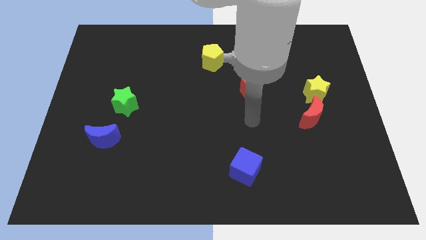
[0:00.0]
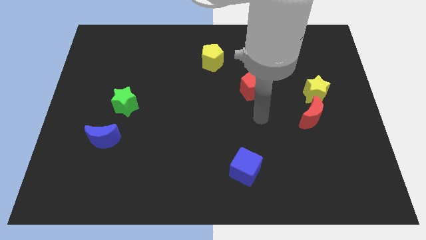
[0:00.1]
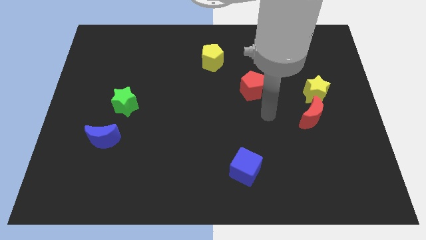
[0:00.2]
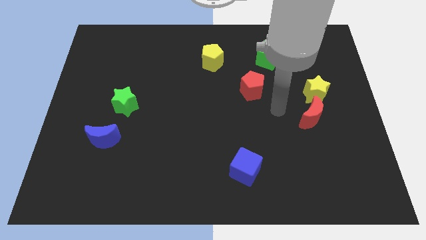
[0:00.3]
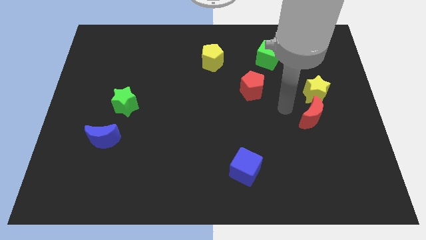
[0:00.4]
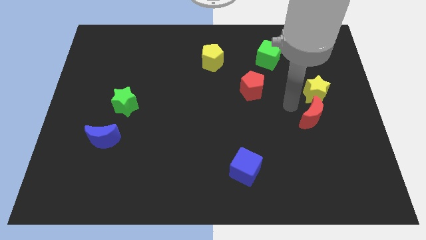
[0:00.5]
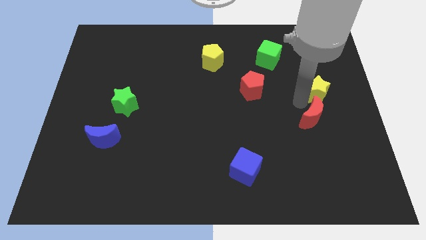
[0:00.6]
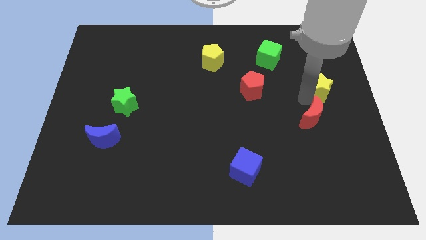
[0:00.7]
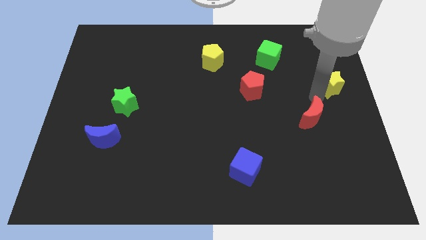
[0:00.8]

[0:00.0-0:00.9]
separate the red moon from the yellow star

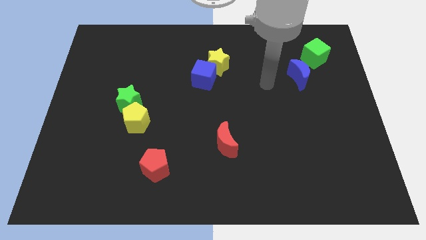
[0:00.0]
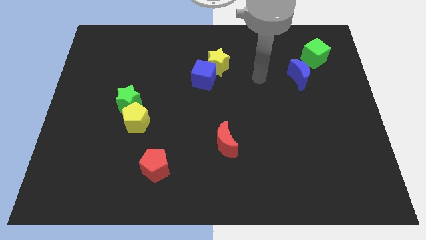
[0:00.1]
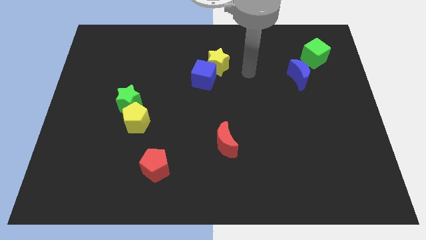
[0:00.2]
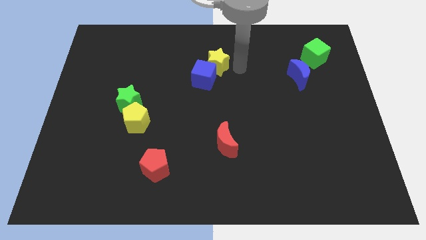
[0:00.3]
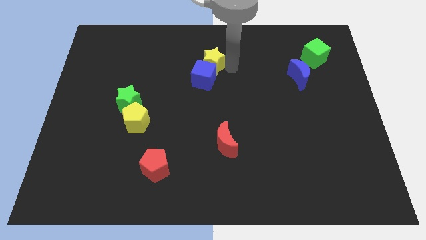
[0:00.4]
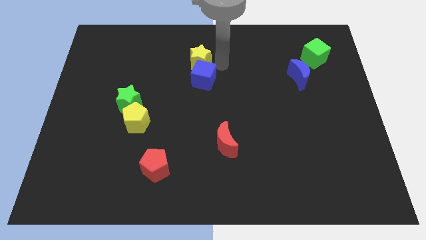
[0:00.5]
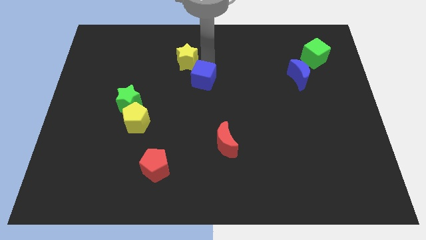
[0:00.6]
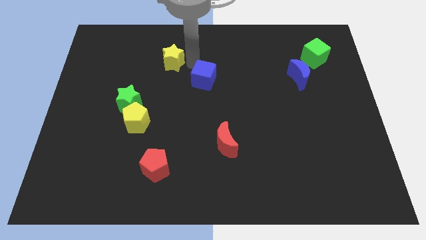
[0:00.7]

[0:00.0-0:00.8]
separate the blue cube from the yellow star

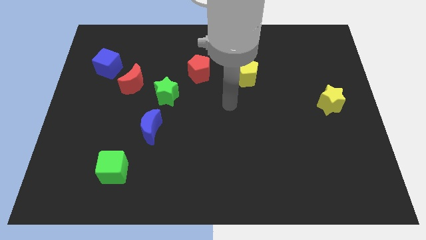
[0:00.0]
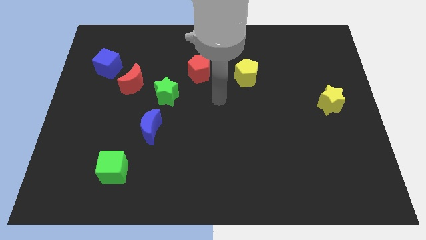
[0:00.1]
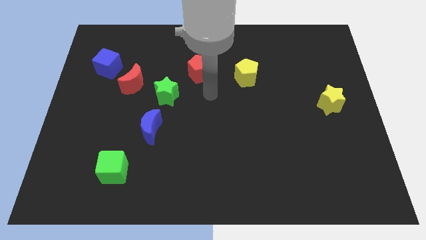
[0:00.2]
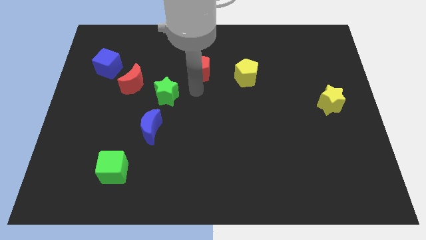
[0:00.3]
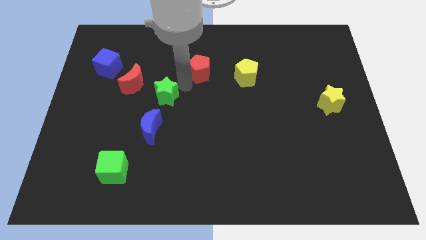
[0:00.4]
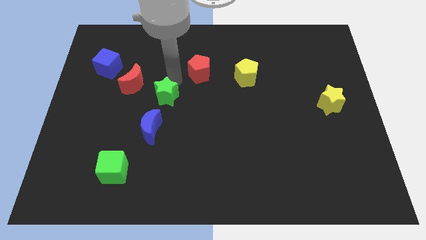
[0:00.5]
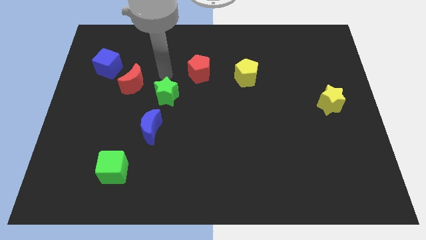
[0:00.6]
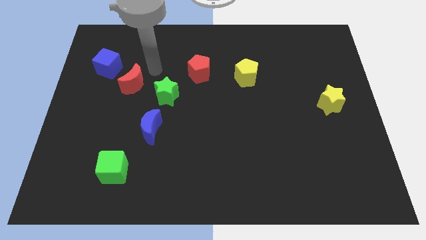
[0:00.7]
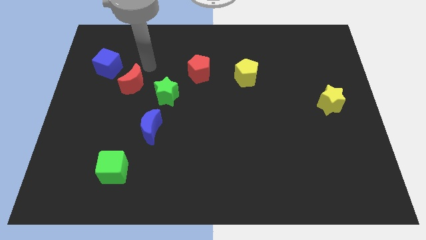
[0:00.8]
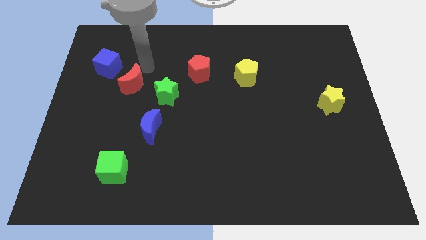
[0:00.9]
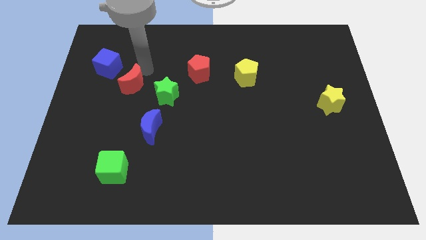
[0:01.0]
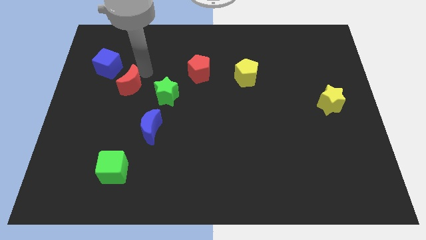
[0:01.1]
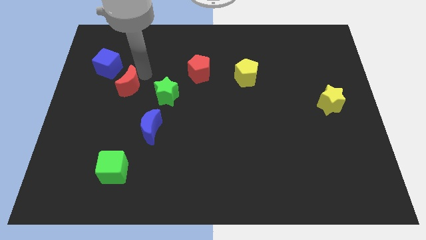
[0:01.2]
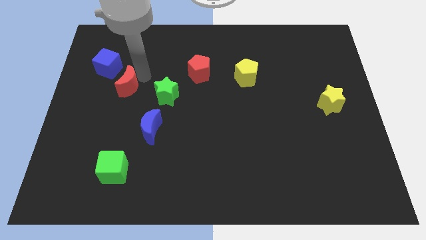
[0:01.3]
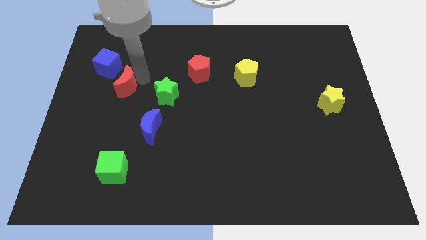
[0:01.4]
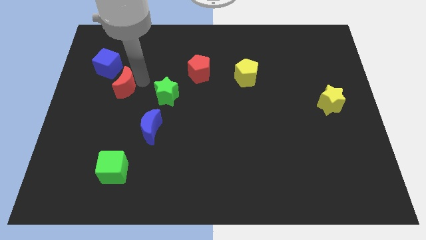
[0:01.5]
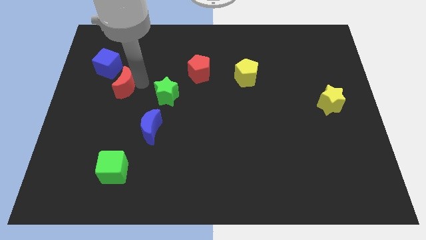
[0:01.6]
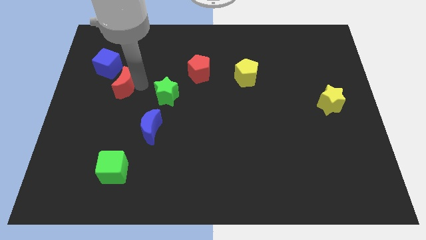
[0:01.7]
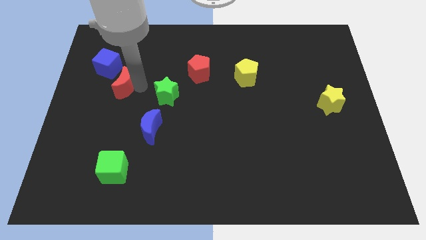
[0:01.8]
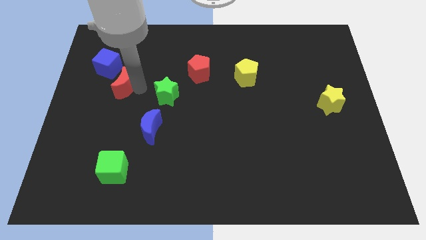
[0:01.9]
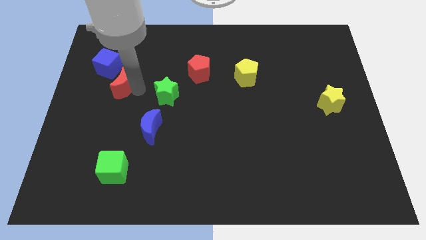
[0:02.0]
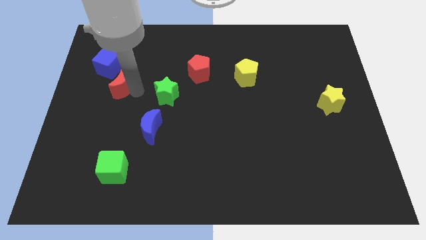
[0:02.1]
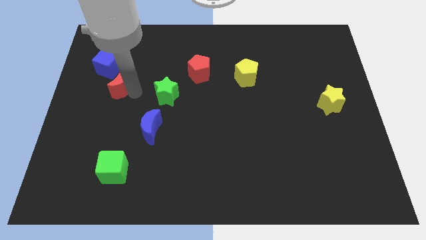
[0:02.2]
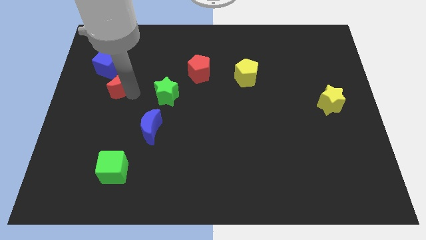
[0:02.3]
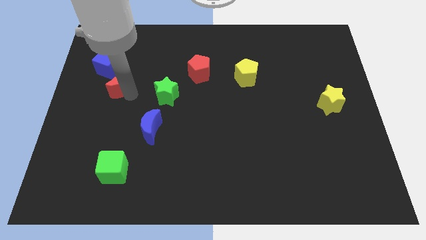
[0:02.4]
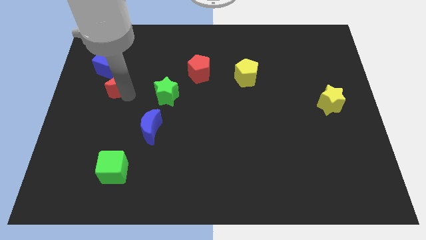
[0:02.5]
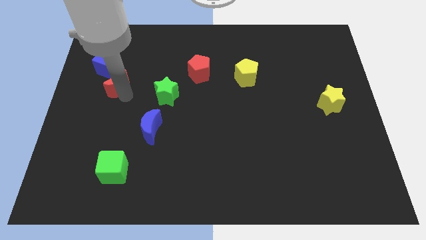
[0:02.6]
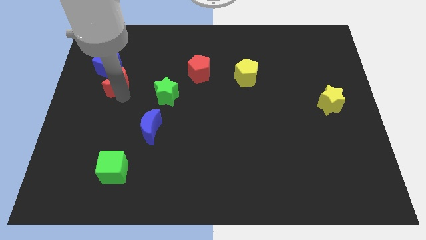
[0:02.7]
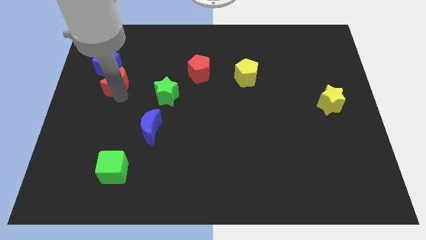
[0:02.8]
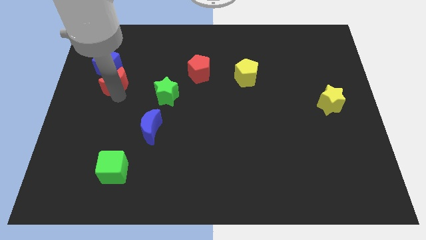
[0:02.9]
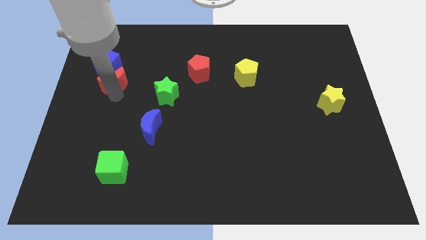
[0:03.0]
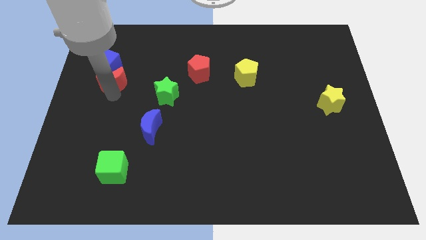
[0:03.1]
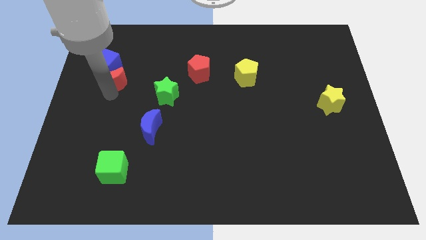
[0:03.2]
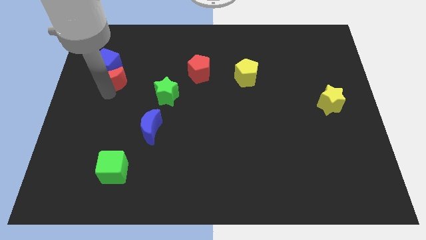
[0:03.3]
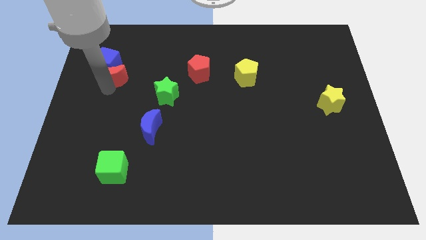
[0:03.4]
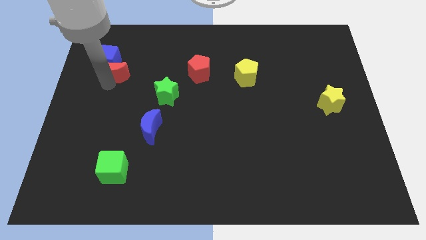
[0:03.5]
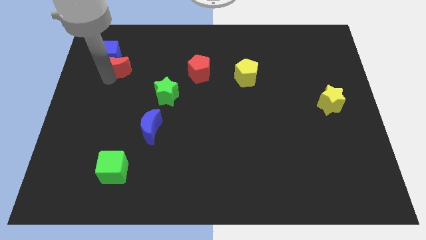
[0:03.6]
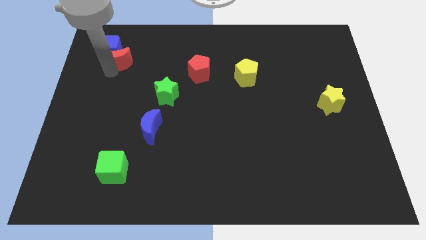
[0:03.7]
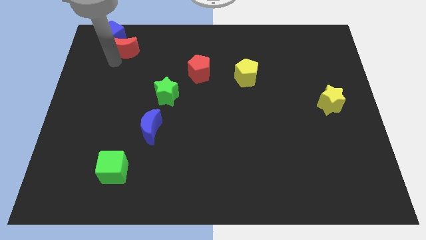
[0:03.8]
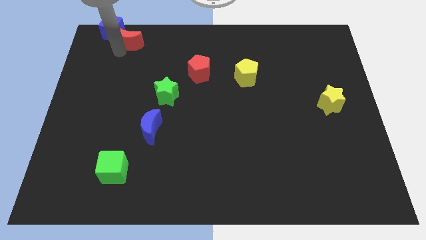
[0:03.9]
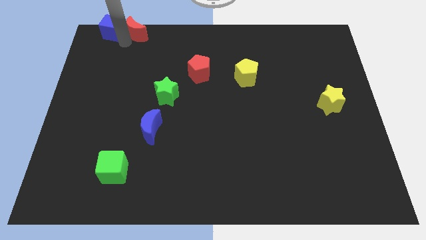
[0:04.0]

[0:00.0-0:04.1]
move the red moon away from the green star and blue cube

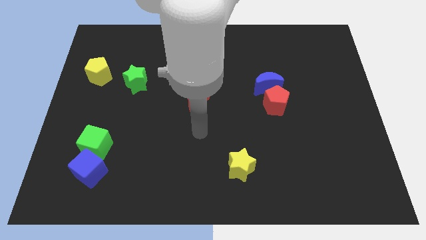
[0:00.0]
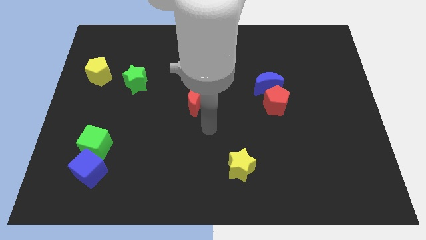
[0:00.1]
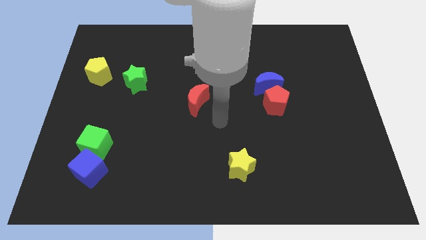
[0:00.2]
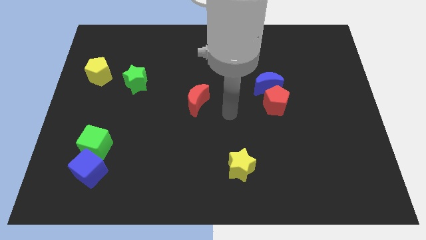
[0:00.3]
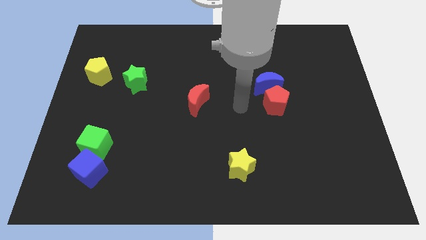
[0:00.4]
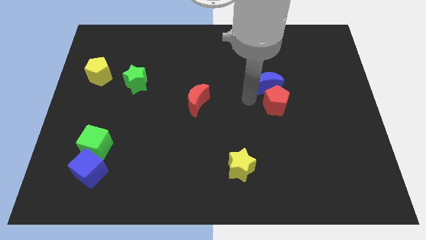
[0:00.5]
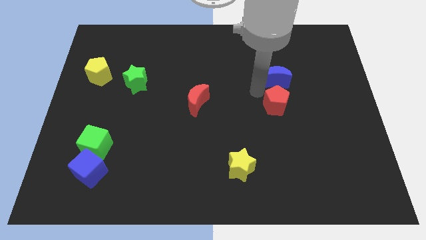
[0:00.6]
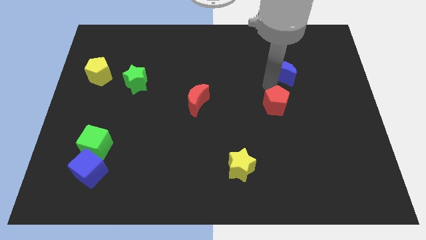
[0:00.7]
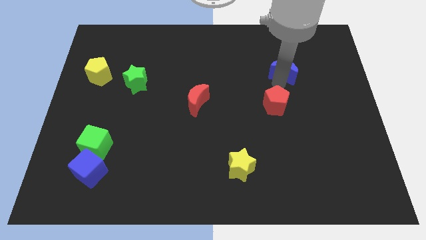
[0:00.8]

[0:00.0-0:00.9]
separate the red pentagon from the blue moon

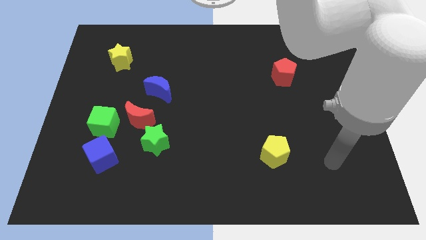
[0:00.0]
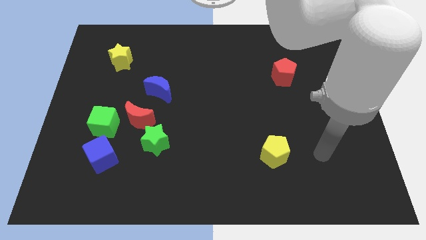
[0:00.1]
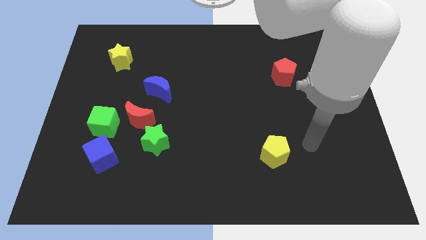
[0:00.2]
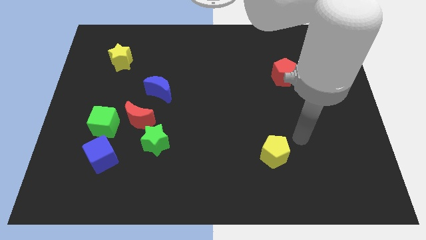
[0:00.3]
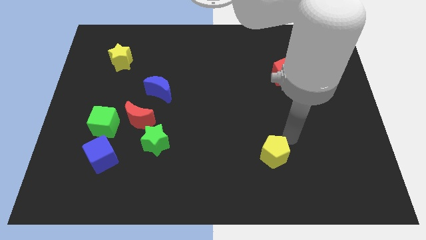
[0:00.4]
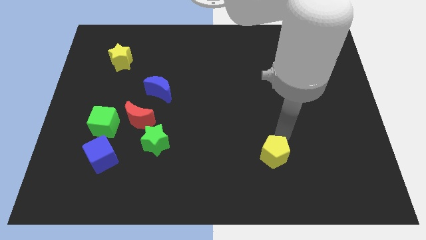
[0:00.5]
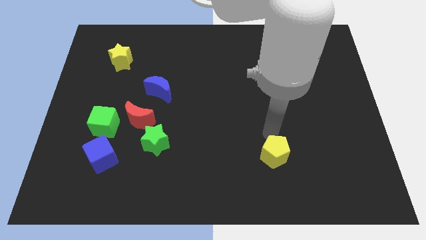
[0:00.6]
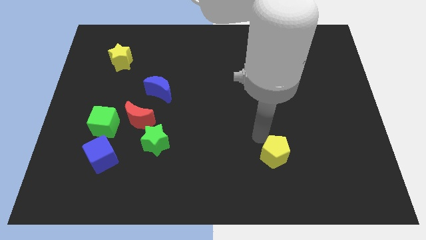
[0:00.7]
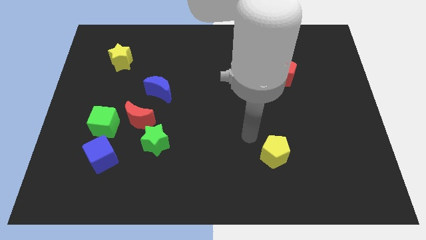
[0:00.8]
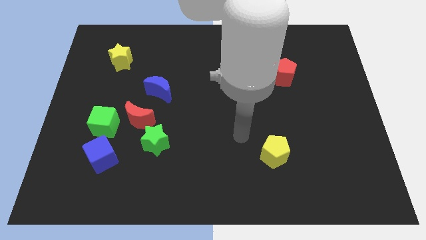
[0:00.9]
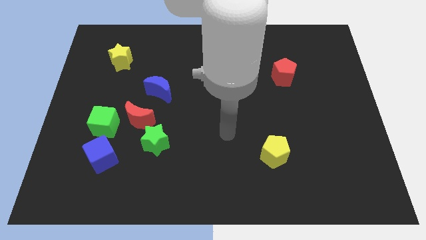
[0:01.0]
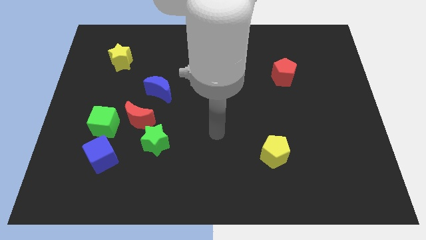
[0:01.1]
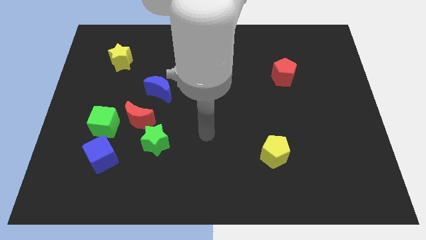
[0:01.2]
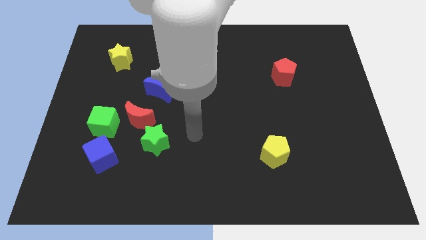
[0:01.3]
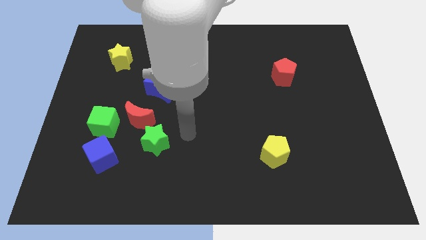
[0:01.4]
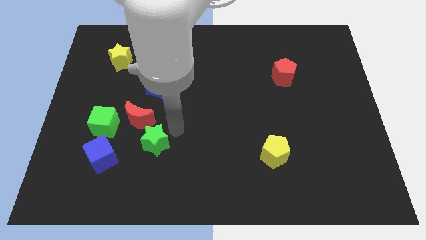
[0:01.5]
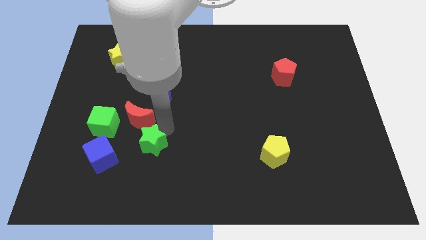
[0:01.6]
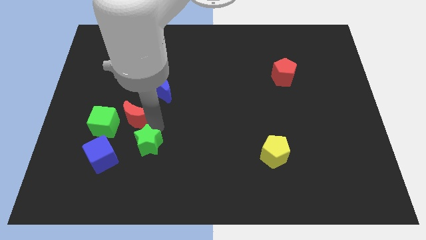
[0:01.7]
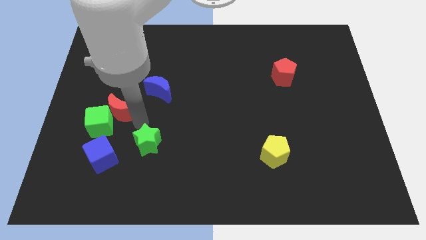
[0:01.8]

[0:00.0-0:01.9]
pull the green star apart from the red moon

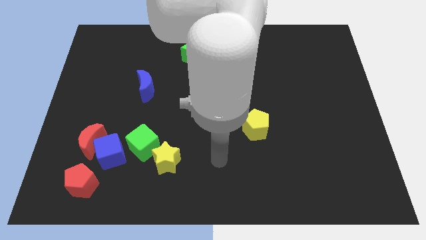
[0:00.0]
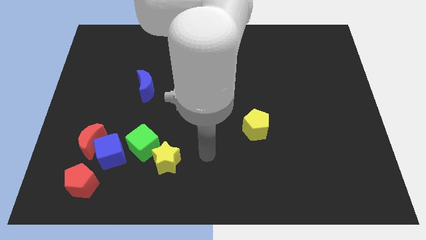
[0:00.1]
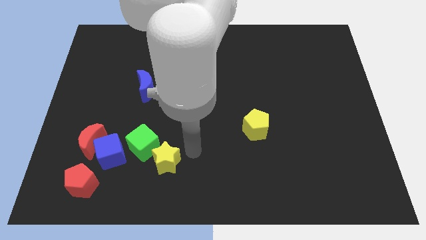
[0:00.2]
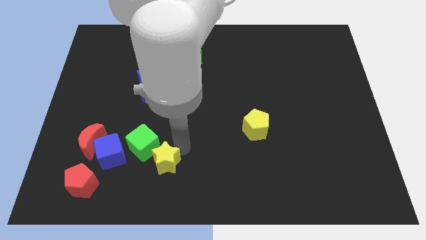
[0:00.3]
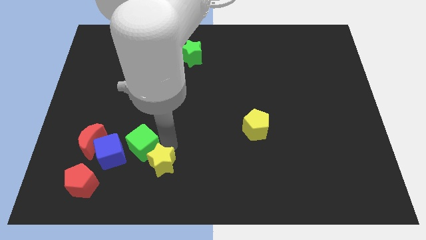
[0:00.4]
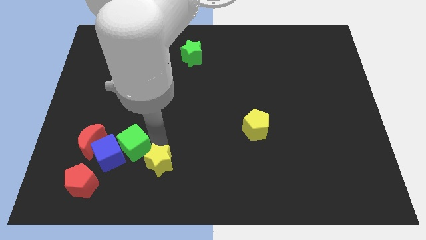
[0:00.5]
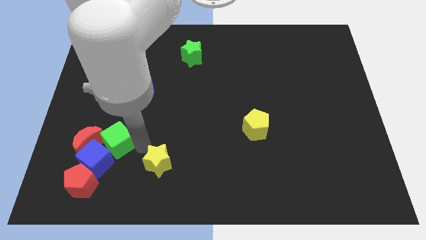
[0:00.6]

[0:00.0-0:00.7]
pull the yellow star apart from the green cube
